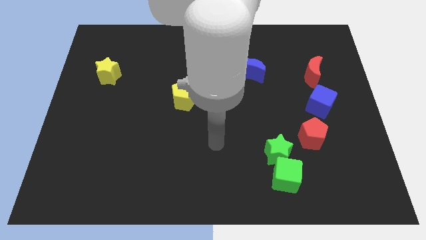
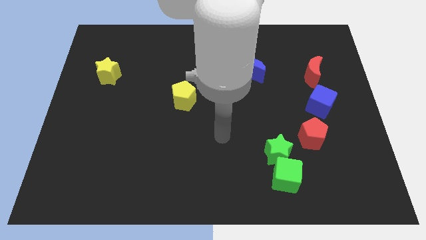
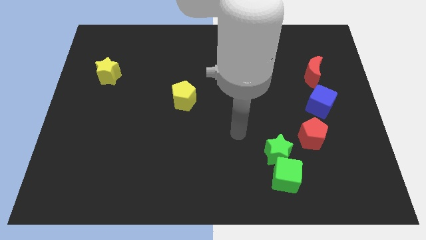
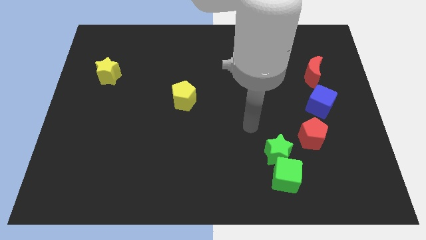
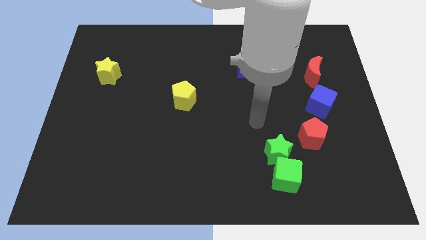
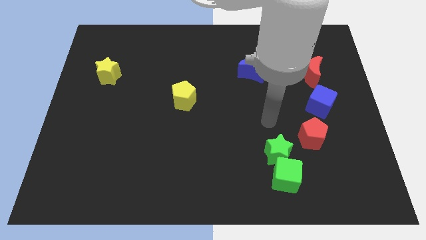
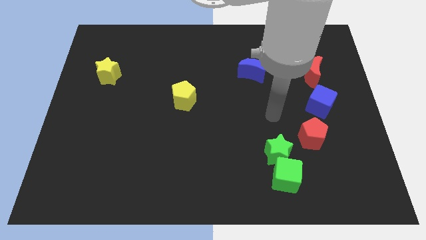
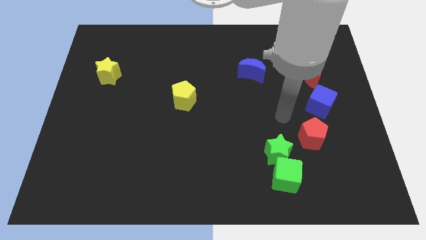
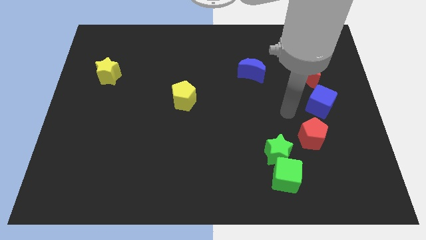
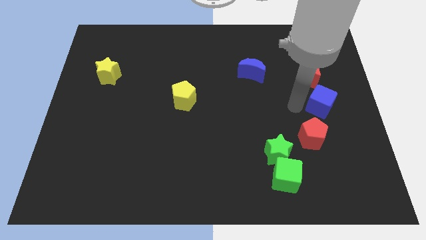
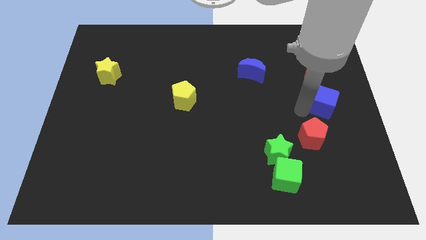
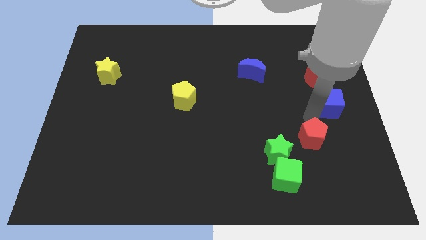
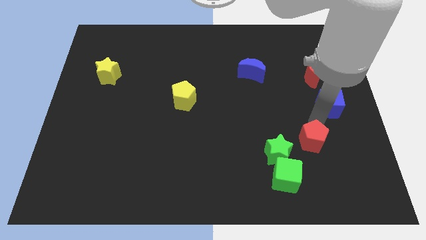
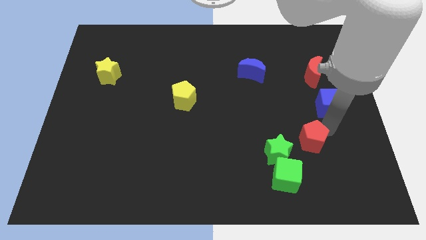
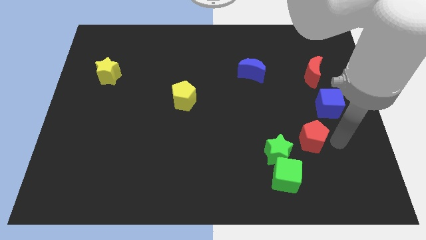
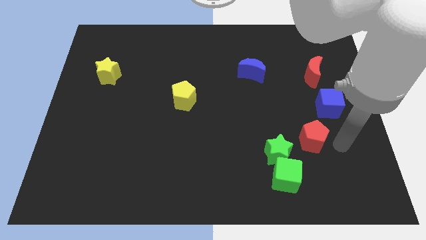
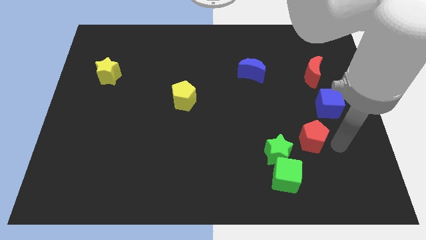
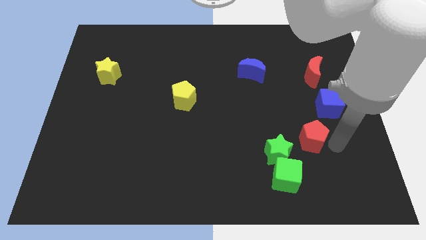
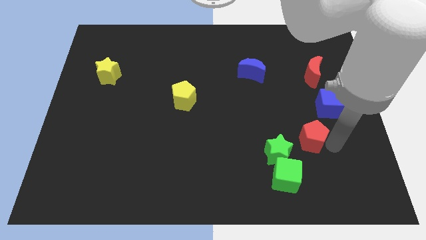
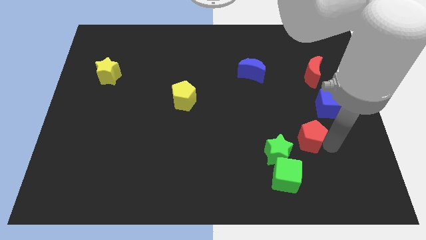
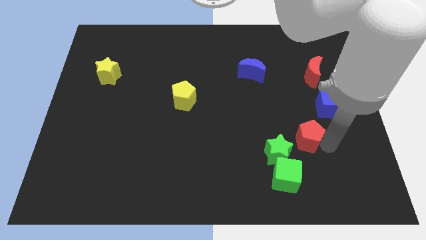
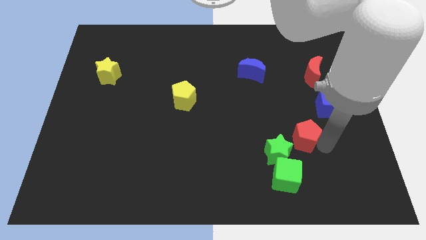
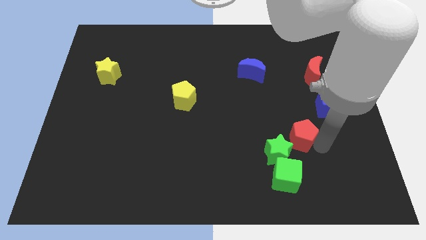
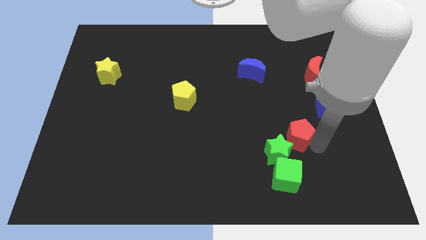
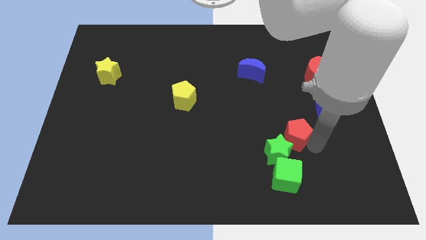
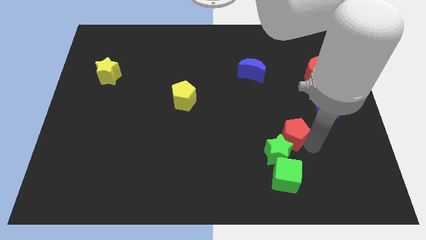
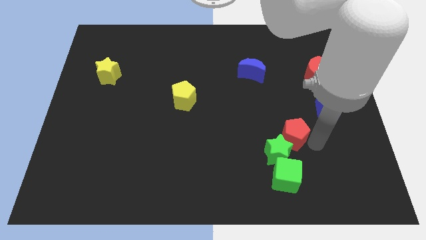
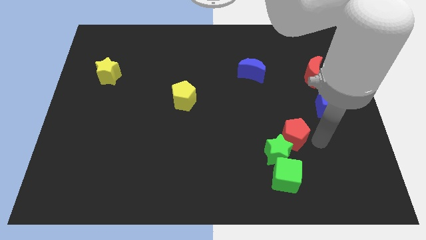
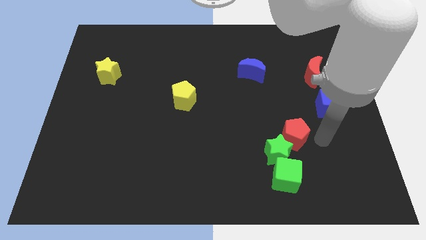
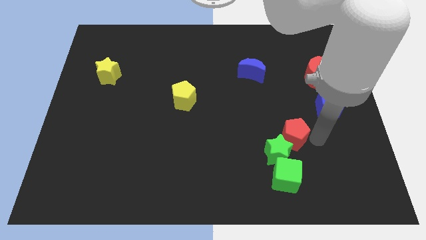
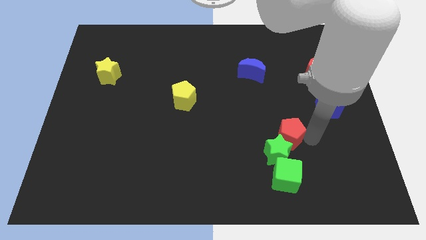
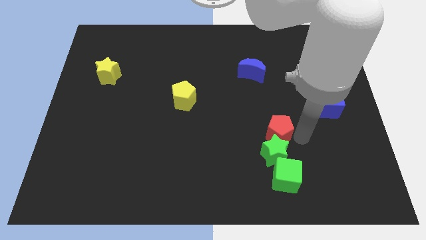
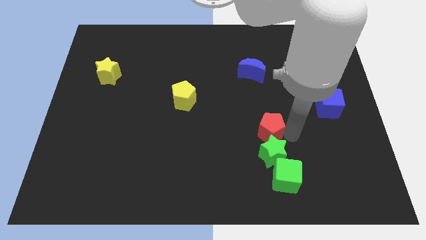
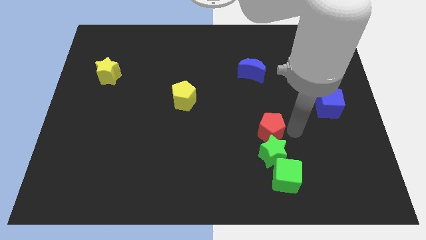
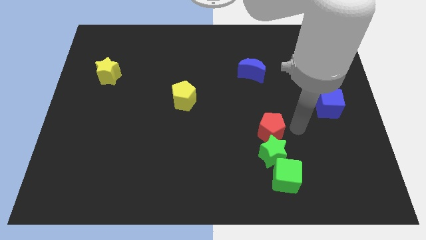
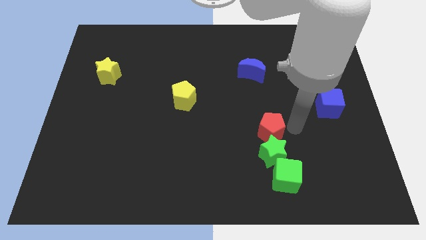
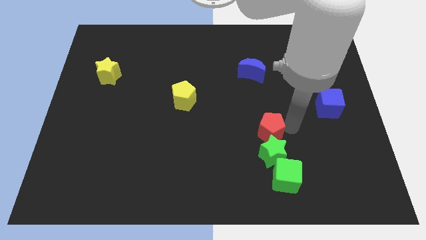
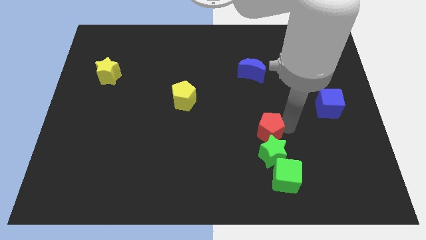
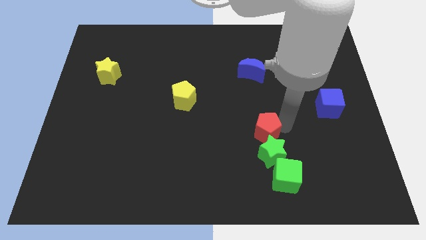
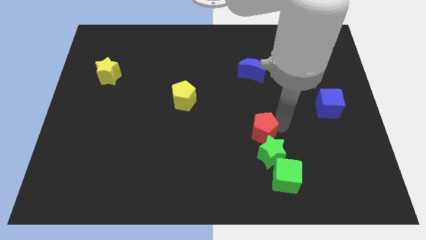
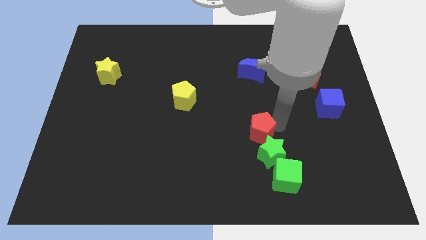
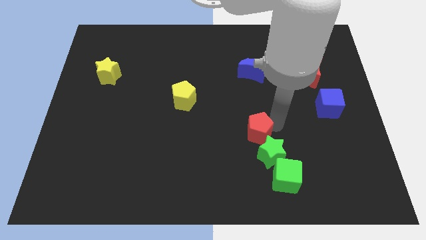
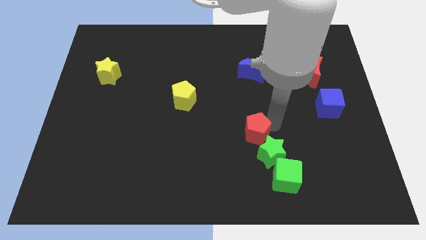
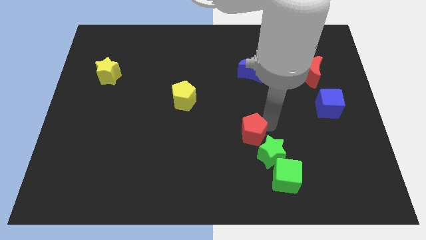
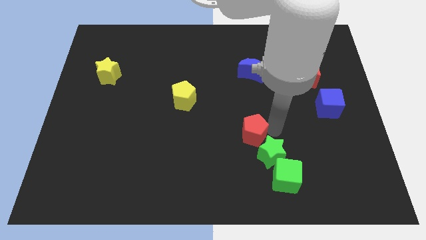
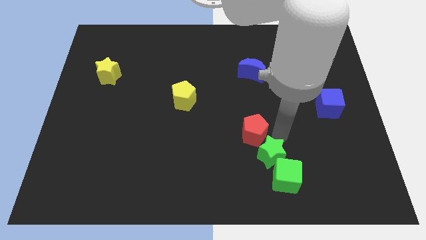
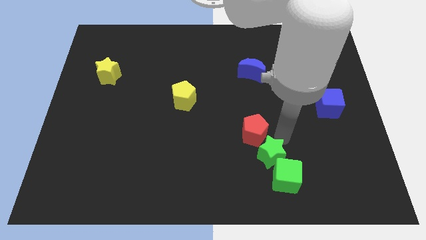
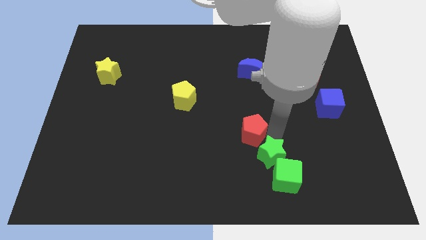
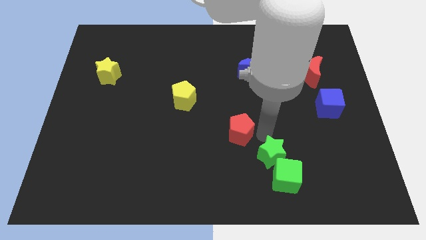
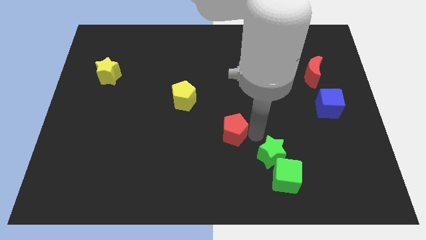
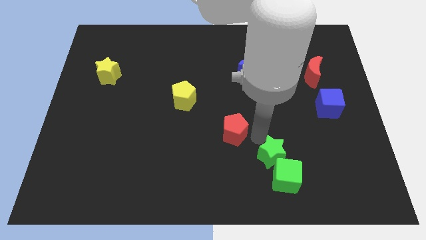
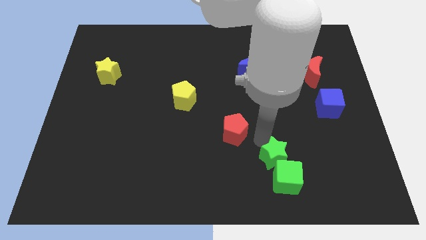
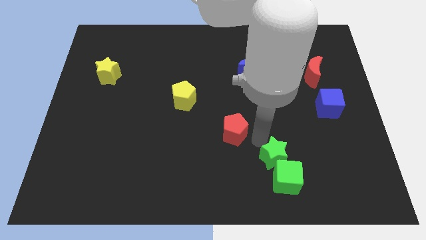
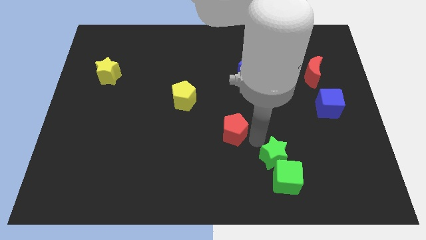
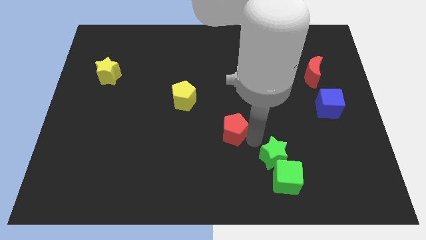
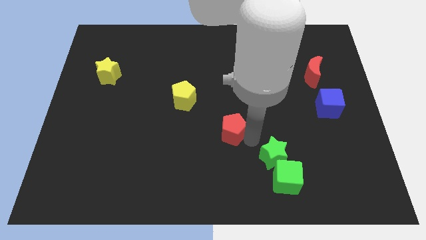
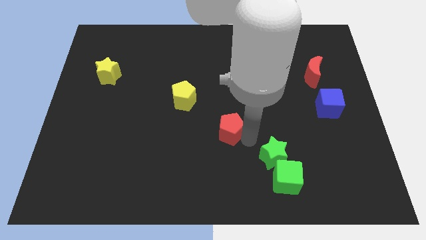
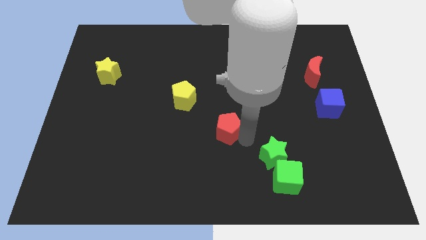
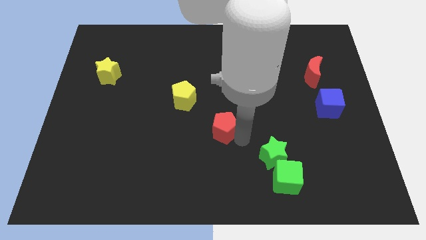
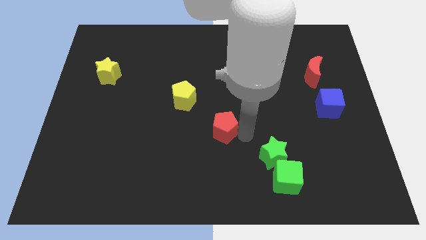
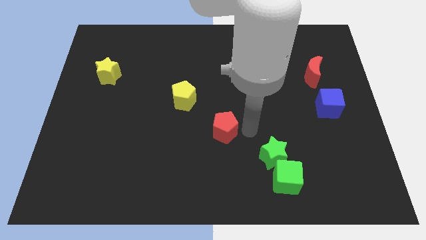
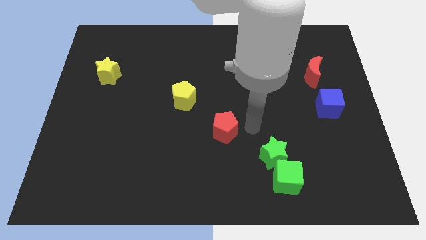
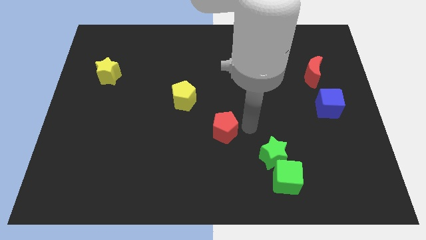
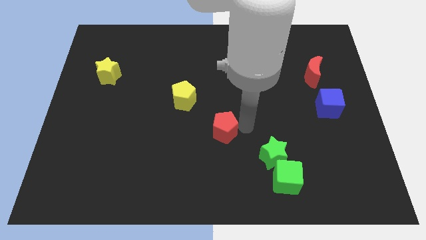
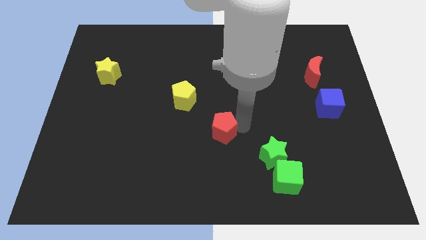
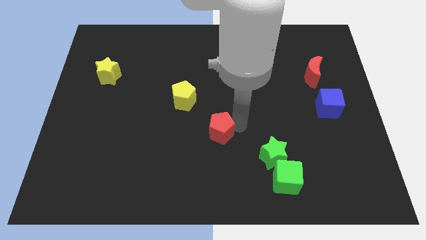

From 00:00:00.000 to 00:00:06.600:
move the red pentagon to the left

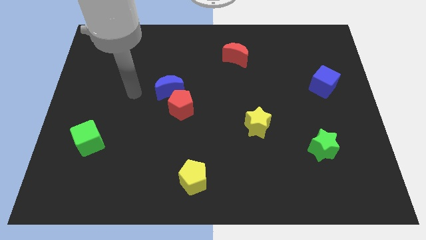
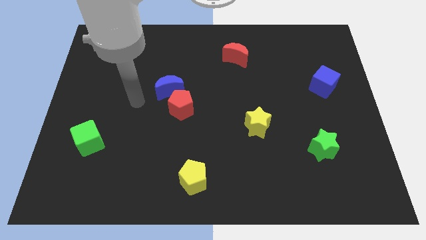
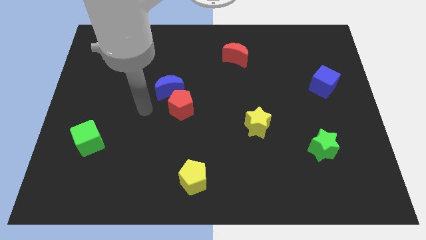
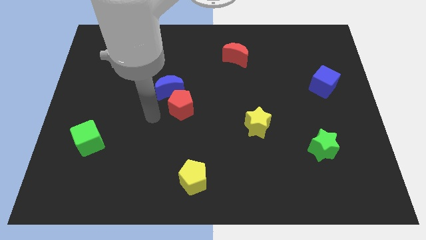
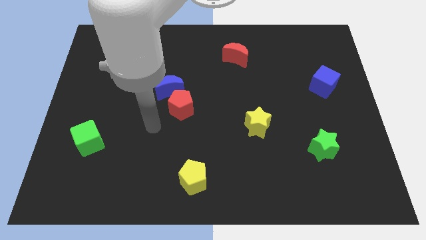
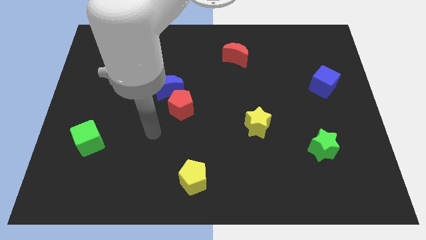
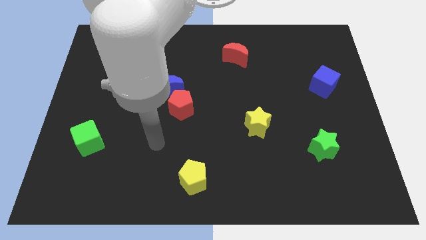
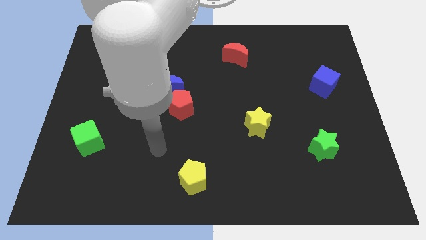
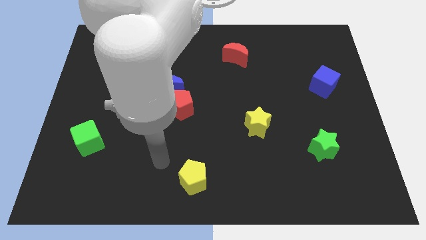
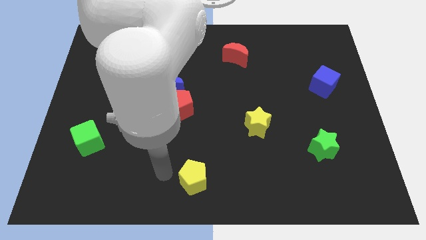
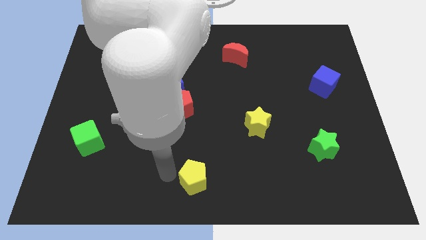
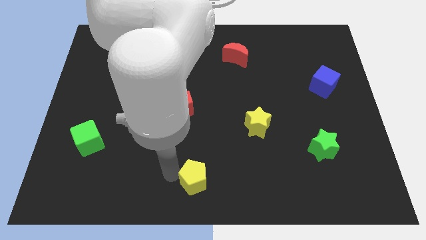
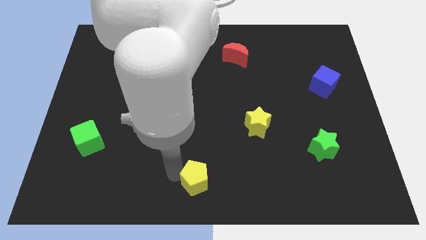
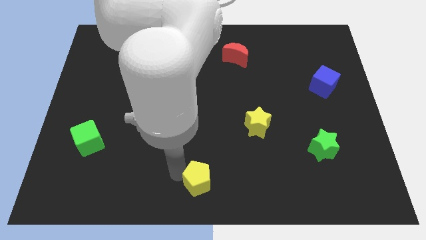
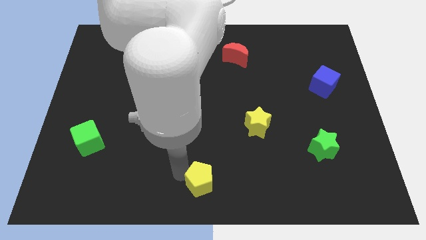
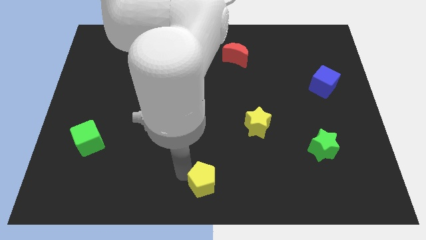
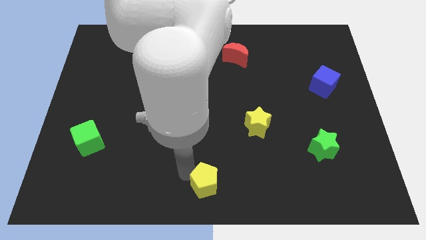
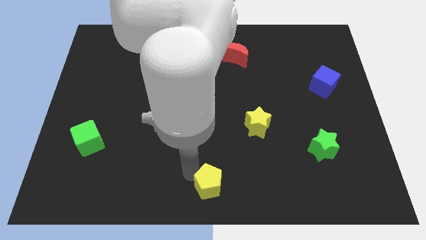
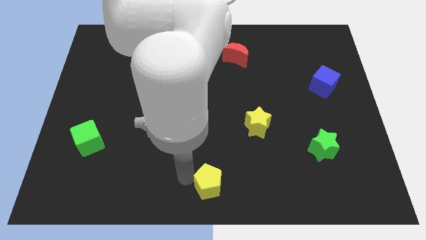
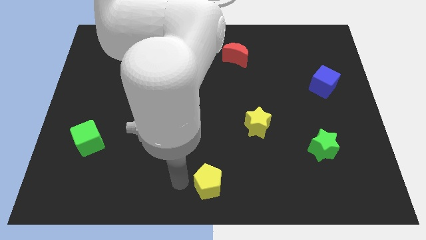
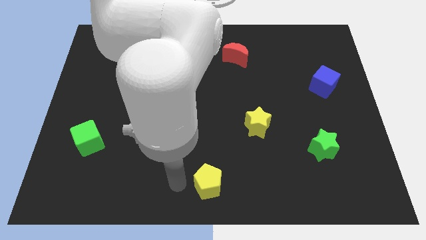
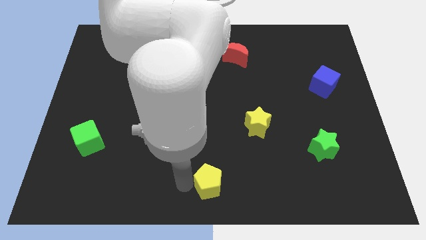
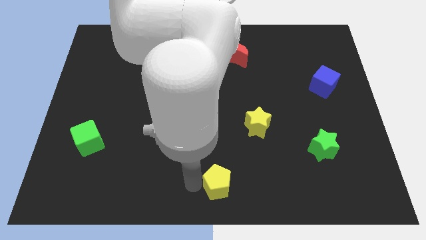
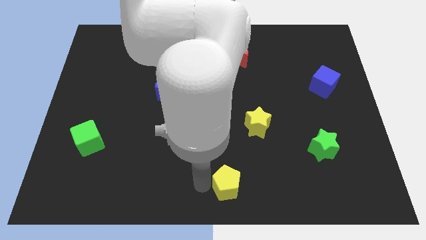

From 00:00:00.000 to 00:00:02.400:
slide the yellow pentagon a bit to the right
